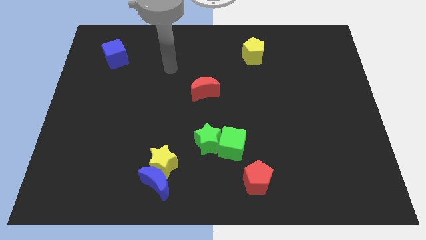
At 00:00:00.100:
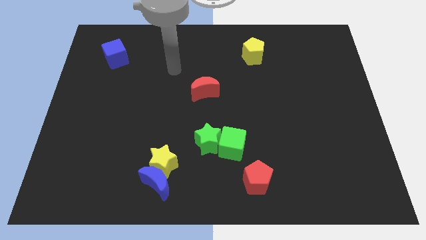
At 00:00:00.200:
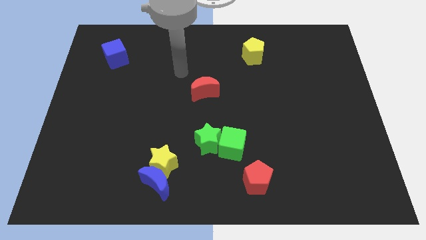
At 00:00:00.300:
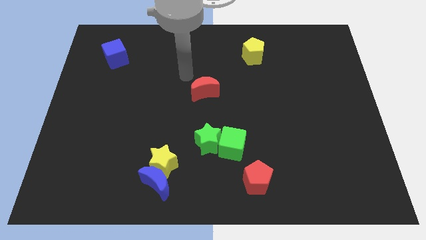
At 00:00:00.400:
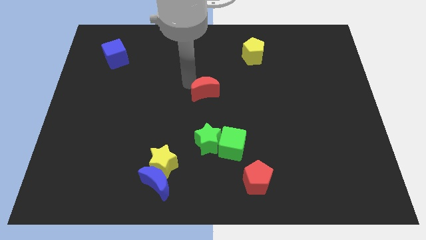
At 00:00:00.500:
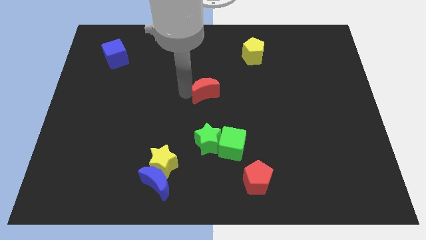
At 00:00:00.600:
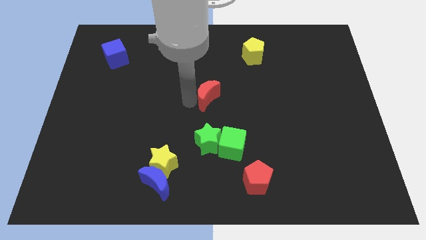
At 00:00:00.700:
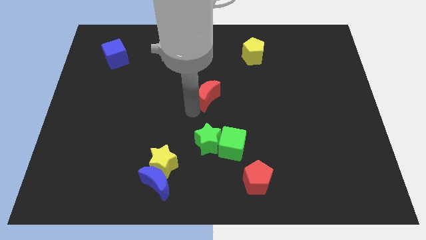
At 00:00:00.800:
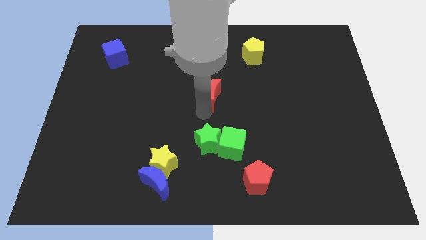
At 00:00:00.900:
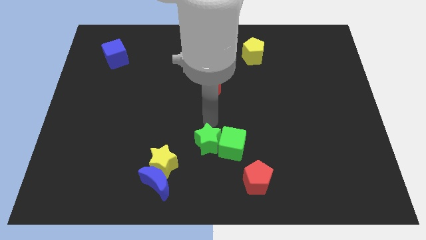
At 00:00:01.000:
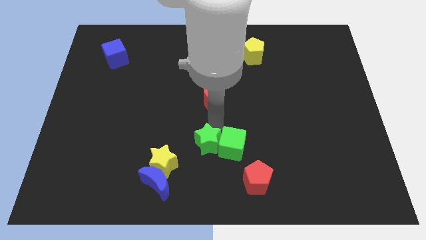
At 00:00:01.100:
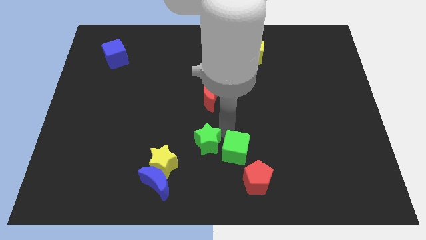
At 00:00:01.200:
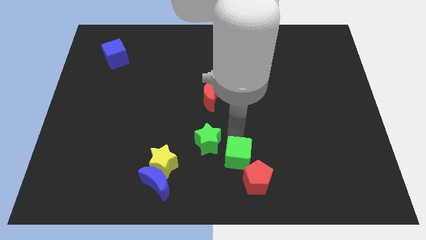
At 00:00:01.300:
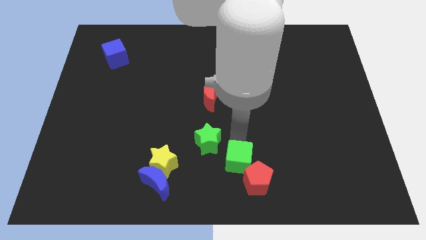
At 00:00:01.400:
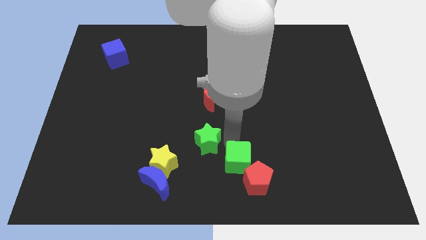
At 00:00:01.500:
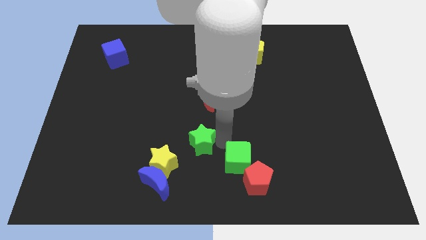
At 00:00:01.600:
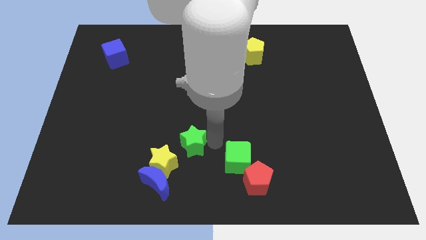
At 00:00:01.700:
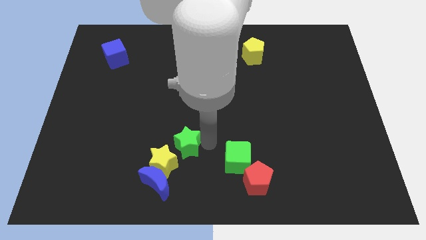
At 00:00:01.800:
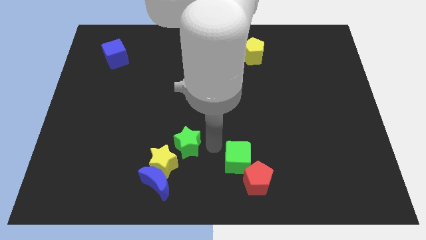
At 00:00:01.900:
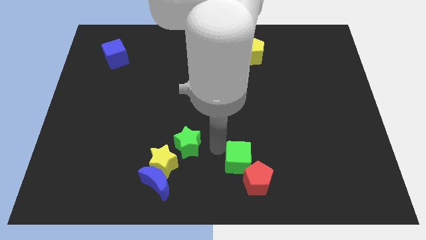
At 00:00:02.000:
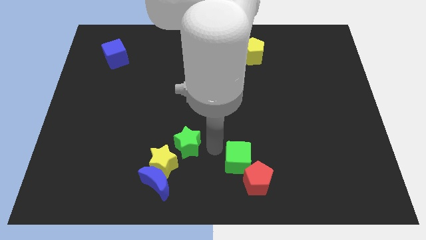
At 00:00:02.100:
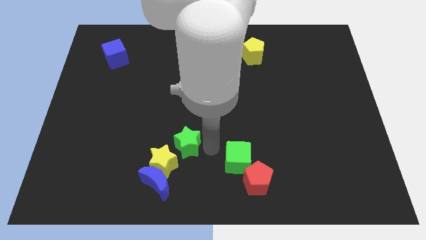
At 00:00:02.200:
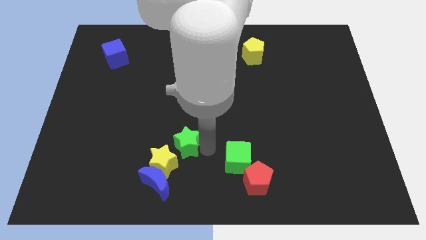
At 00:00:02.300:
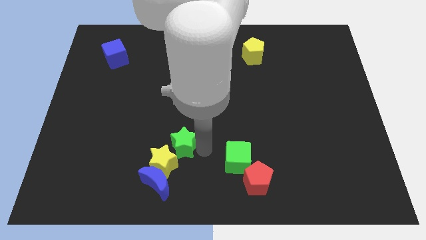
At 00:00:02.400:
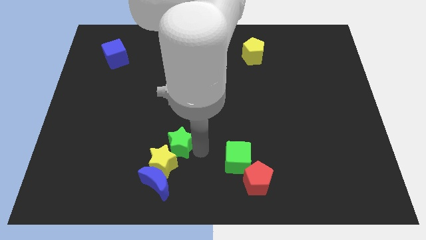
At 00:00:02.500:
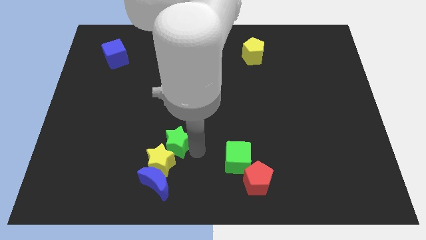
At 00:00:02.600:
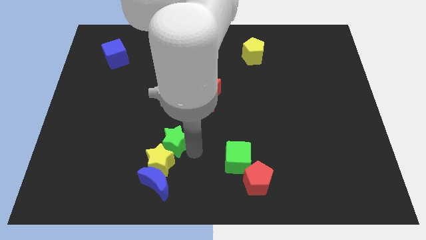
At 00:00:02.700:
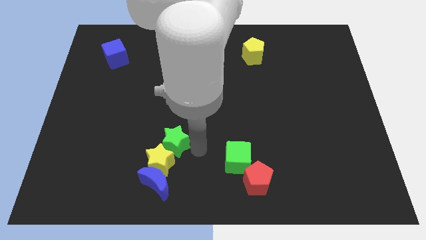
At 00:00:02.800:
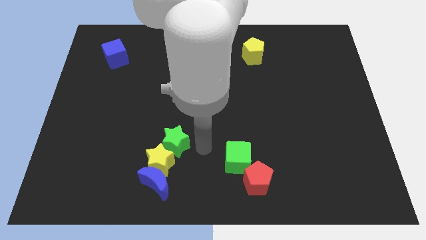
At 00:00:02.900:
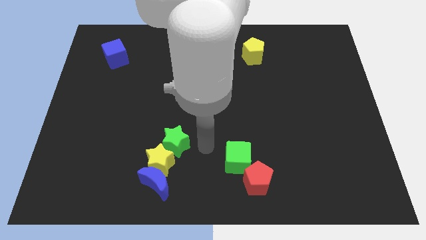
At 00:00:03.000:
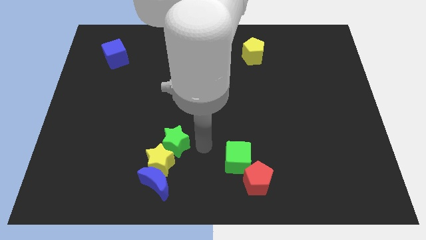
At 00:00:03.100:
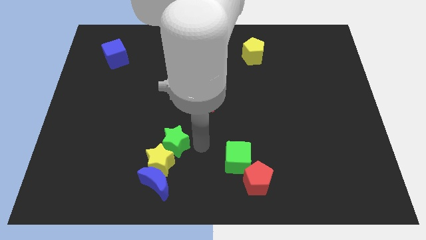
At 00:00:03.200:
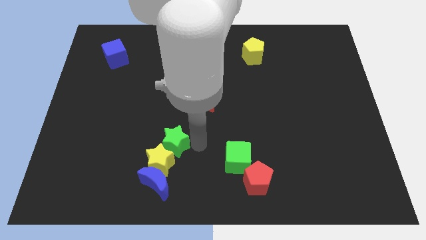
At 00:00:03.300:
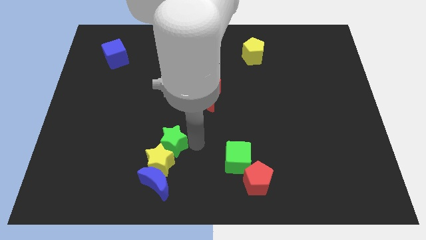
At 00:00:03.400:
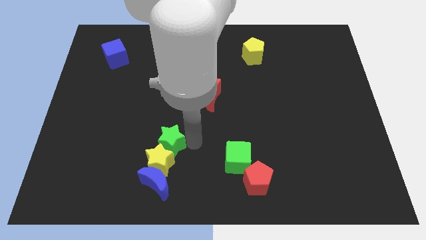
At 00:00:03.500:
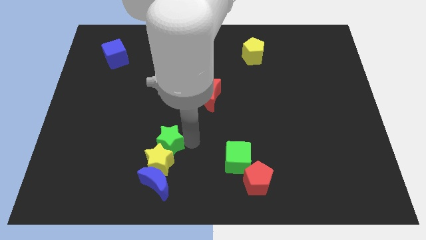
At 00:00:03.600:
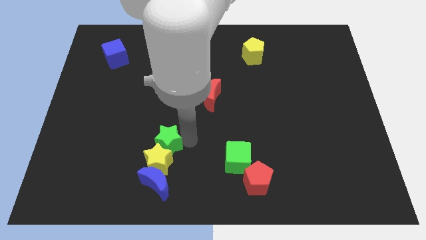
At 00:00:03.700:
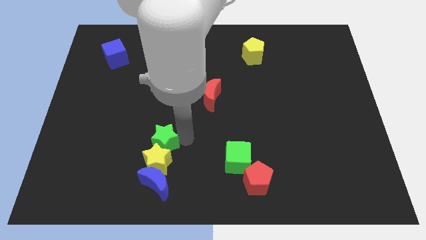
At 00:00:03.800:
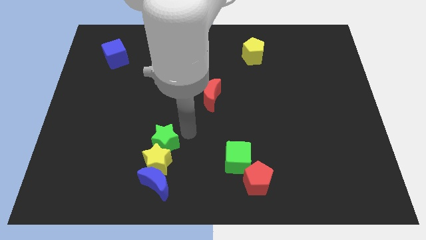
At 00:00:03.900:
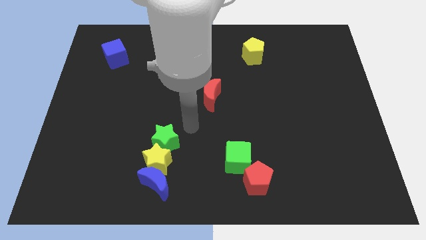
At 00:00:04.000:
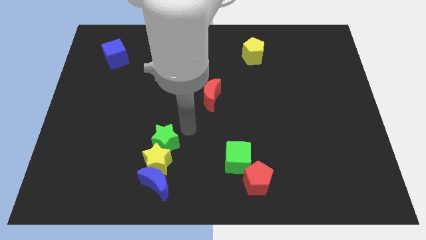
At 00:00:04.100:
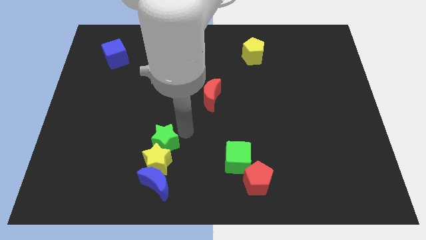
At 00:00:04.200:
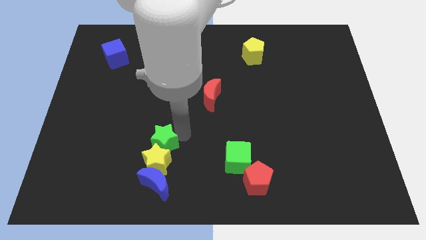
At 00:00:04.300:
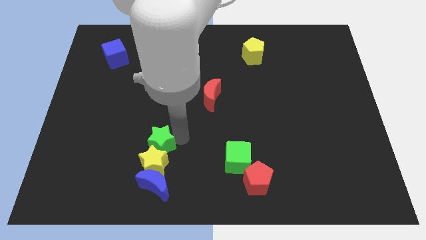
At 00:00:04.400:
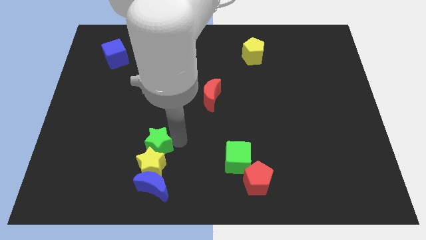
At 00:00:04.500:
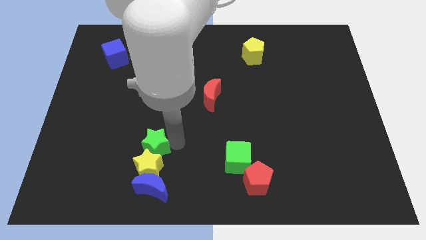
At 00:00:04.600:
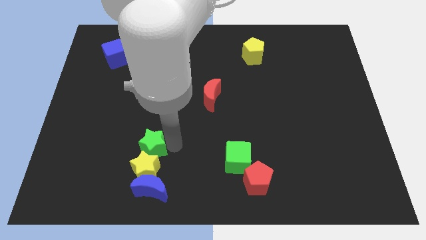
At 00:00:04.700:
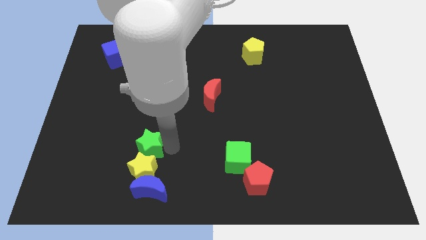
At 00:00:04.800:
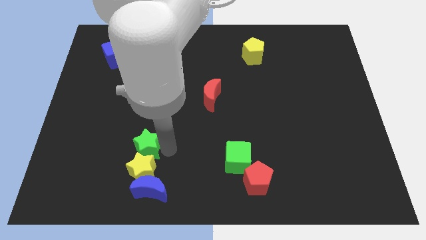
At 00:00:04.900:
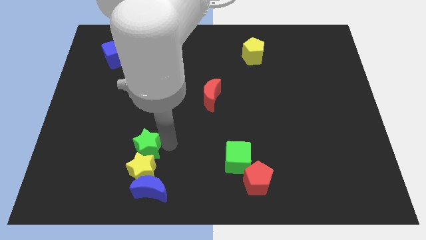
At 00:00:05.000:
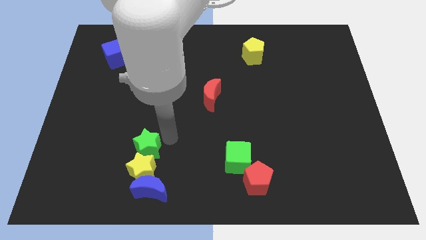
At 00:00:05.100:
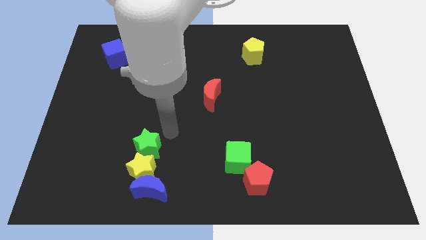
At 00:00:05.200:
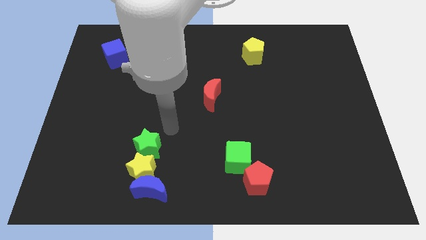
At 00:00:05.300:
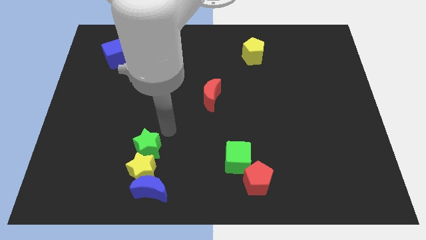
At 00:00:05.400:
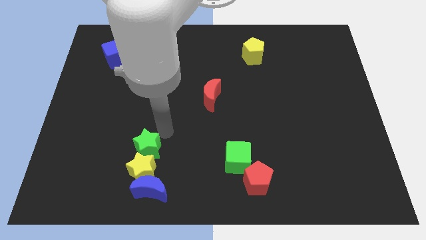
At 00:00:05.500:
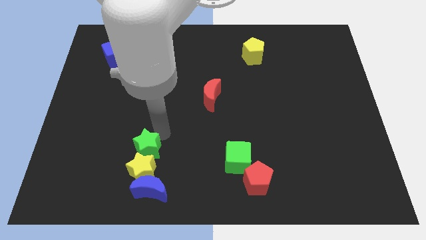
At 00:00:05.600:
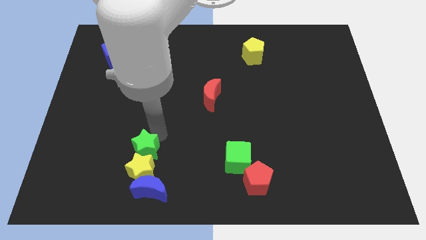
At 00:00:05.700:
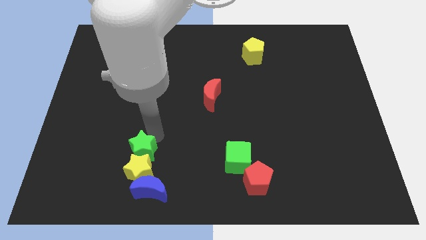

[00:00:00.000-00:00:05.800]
push the green star to the top left side of the blue moon

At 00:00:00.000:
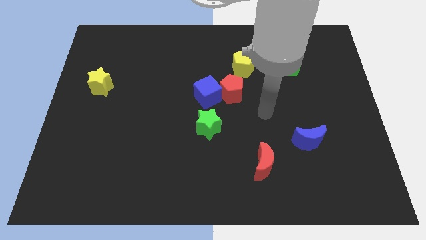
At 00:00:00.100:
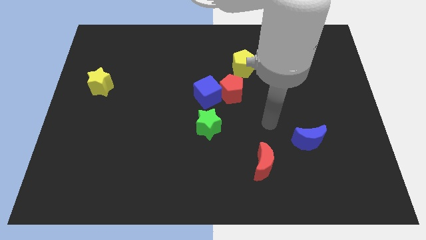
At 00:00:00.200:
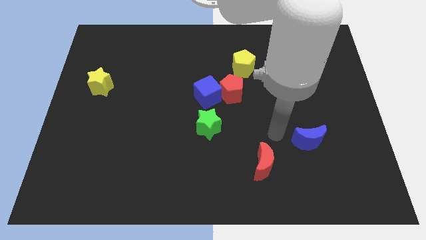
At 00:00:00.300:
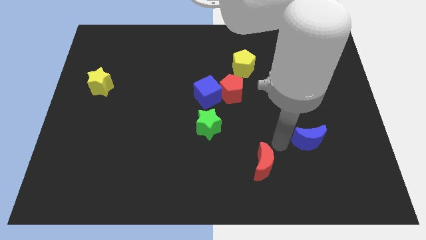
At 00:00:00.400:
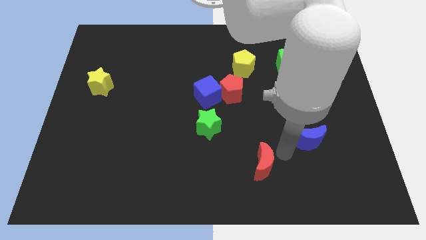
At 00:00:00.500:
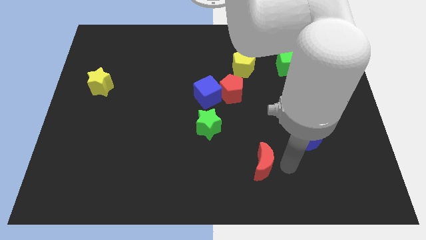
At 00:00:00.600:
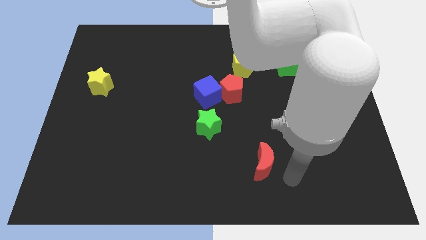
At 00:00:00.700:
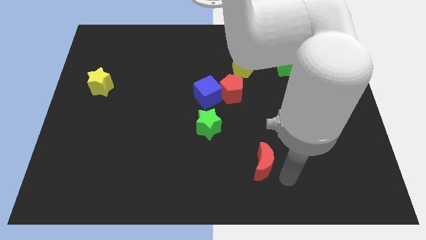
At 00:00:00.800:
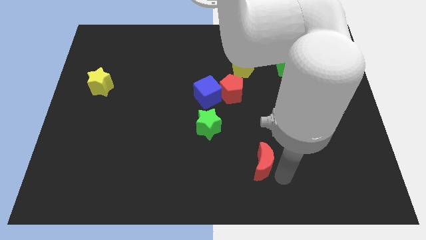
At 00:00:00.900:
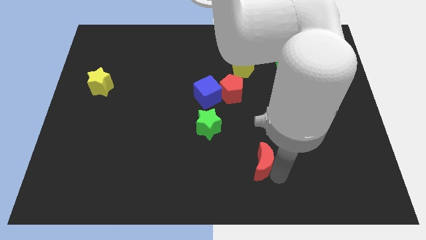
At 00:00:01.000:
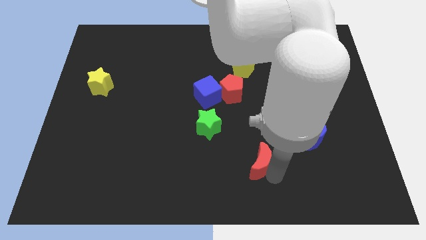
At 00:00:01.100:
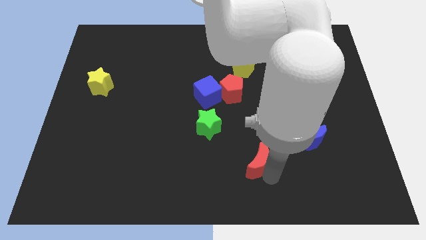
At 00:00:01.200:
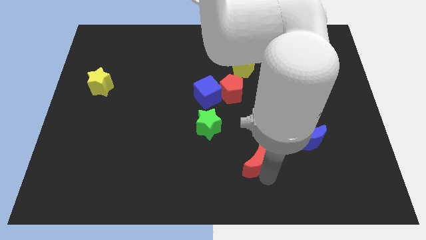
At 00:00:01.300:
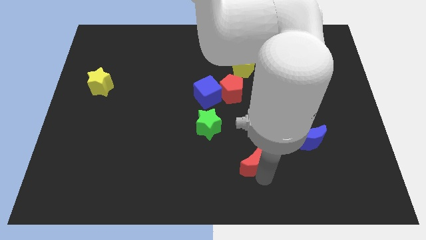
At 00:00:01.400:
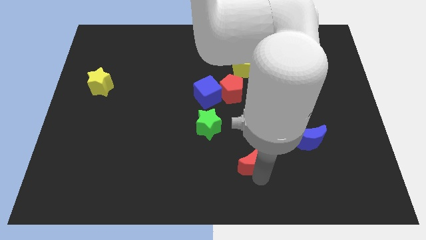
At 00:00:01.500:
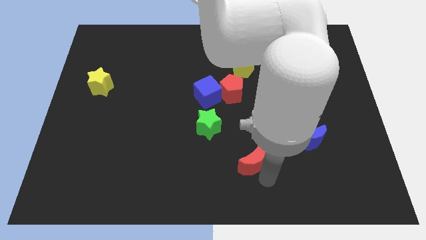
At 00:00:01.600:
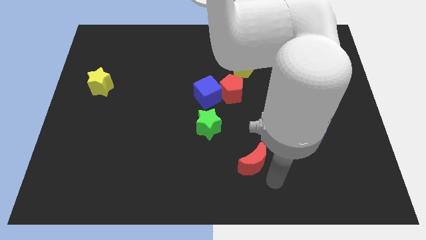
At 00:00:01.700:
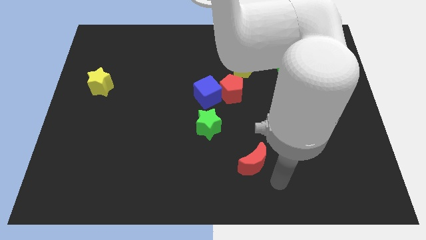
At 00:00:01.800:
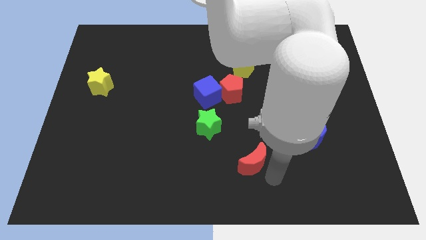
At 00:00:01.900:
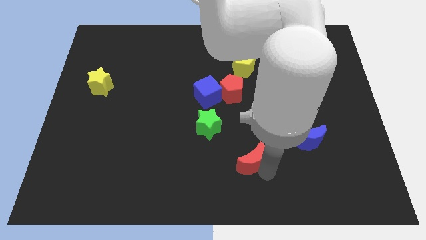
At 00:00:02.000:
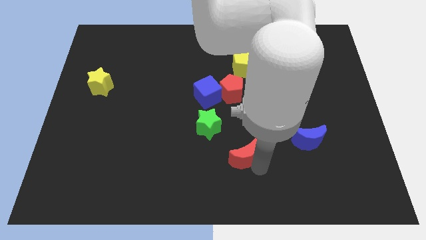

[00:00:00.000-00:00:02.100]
push the red moon to the bottom right side of the green star
